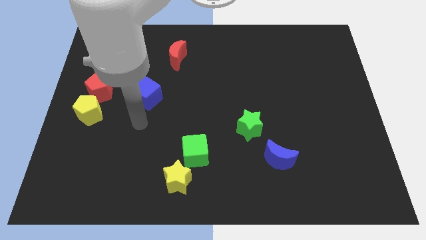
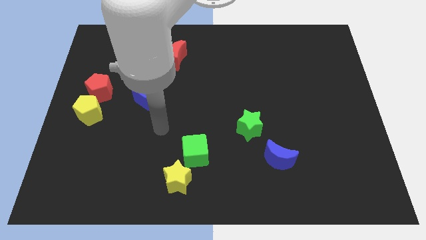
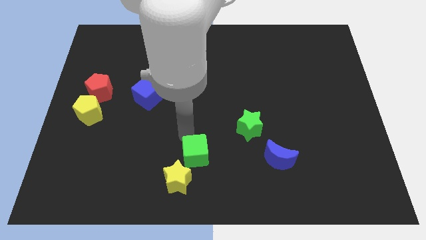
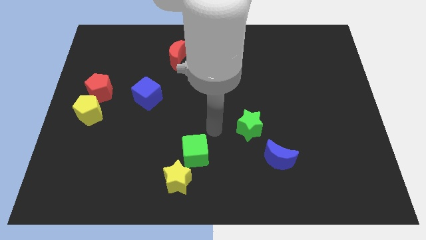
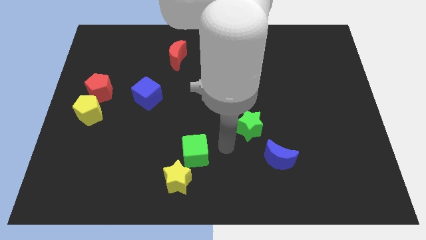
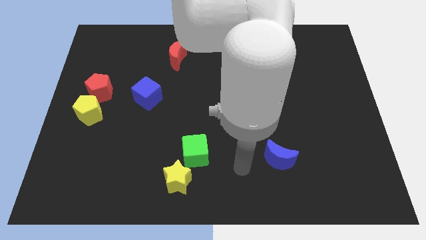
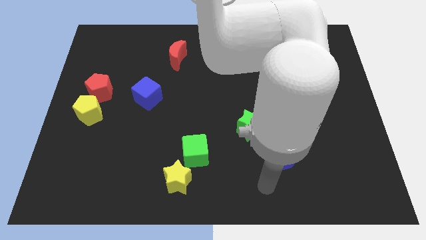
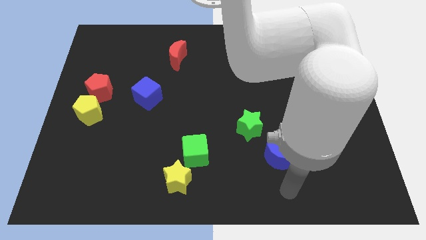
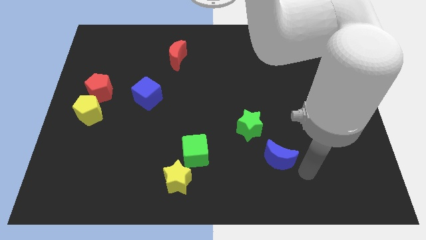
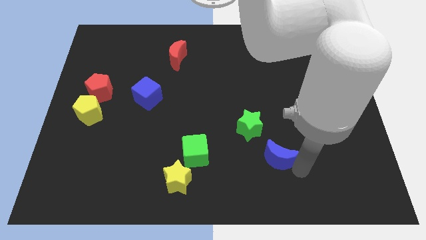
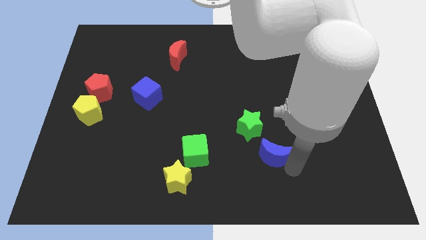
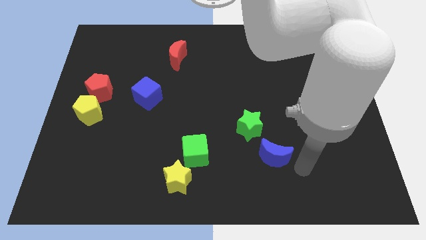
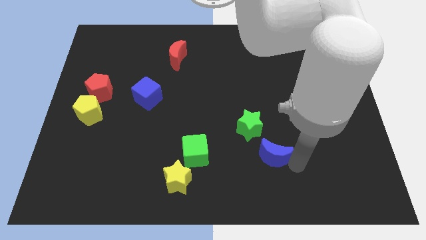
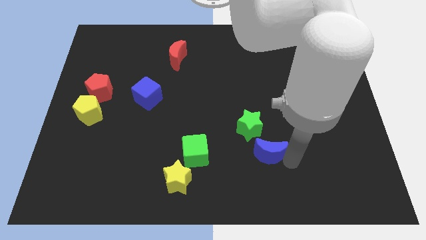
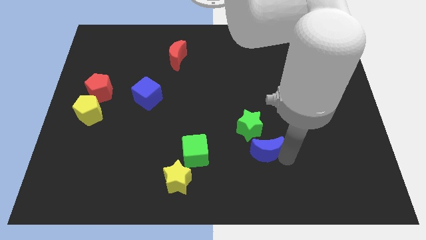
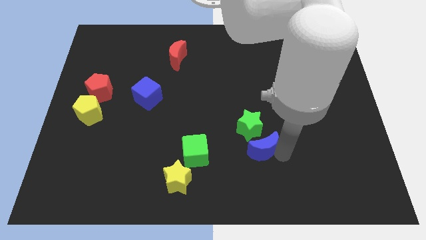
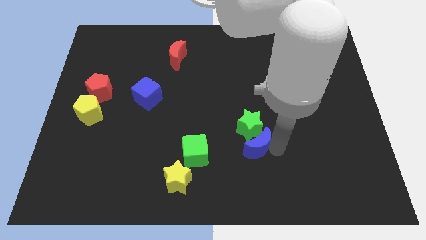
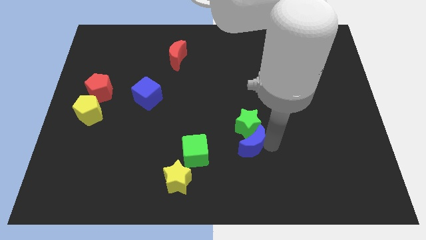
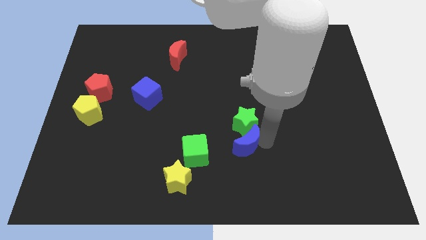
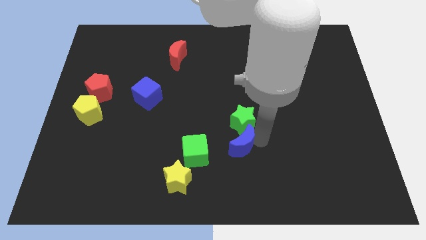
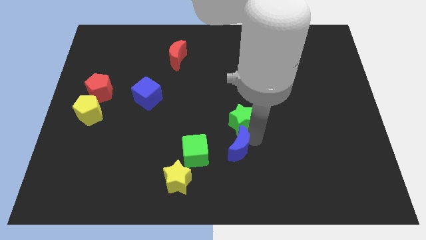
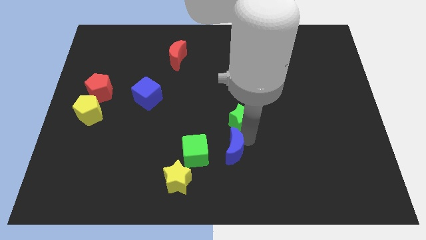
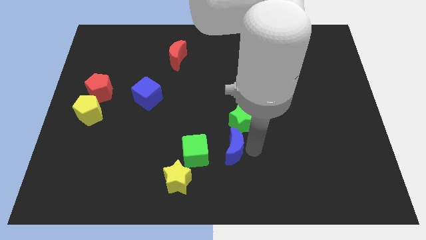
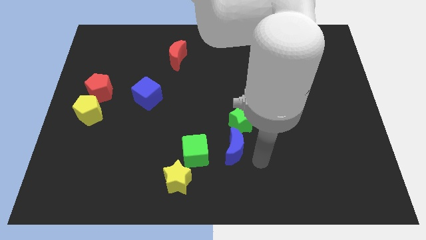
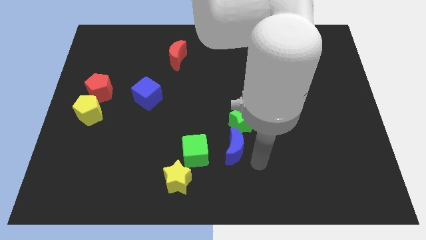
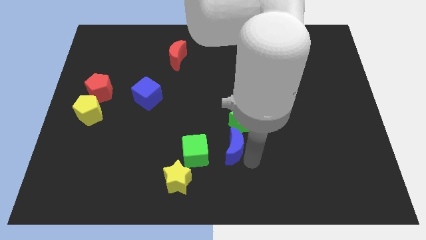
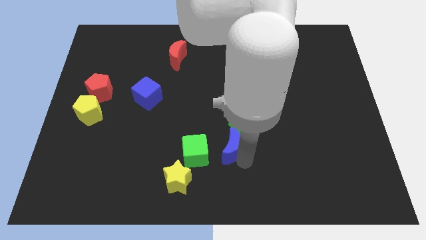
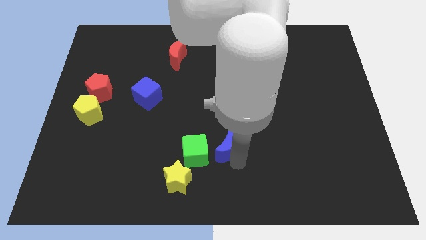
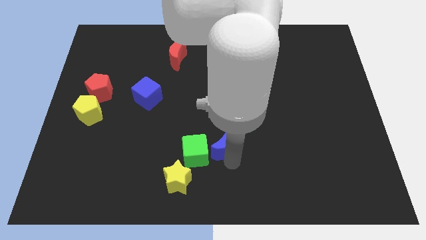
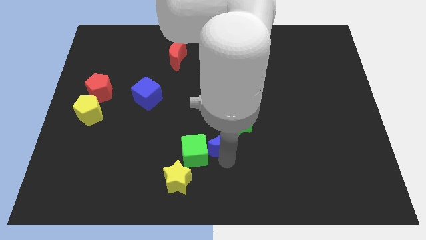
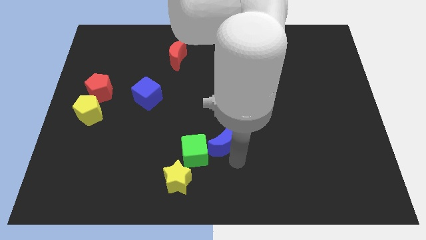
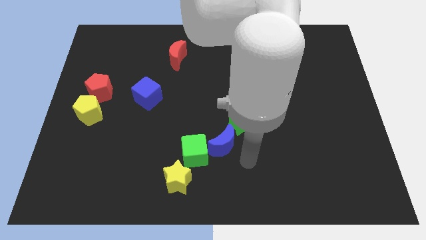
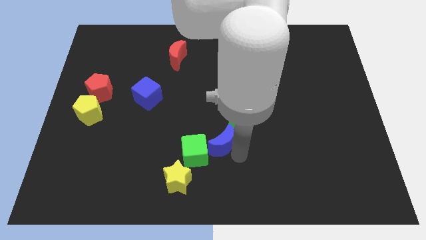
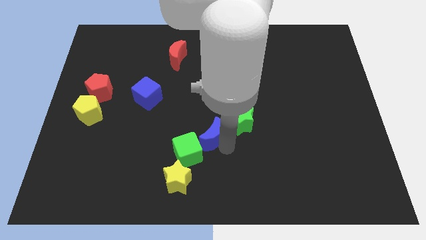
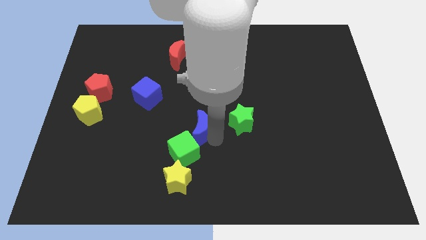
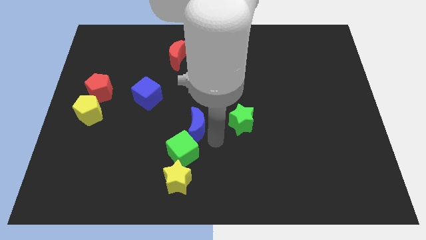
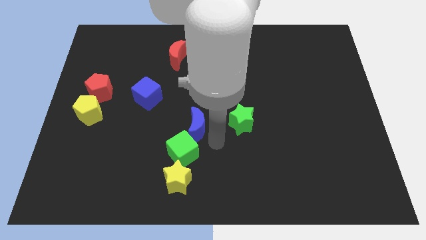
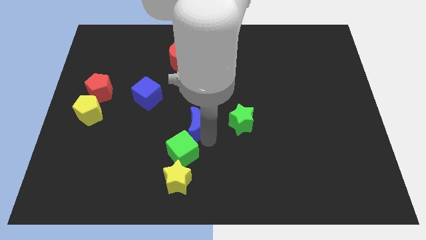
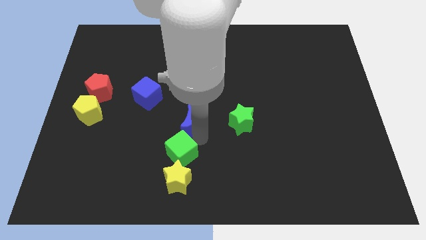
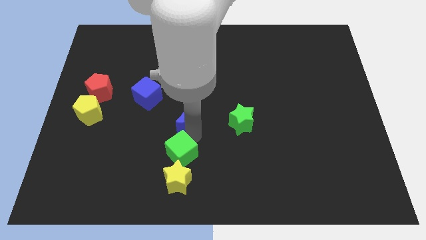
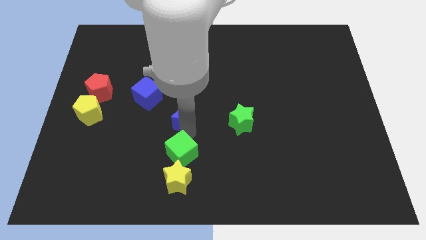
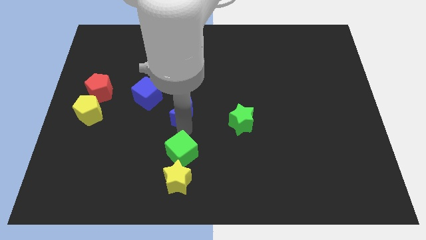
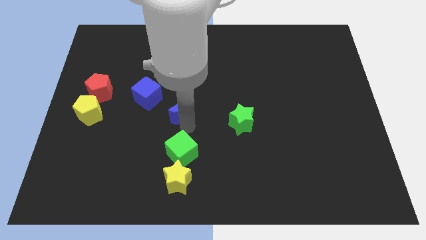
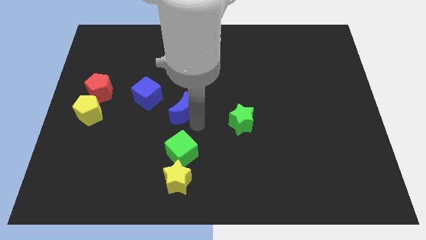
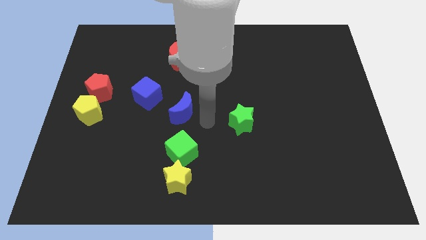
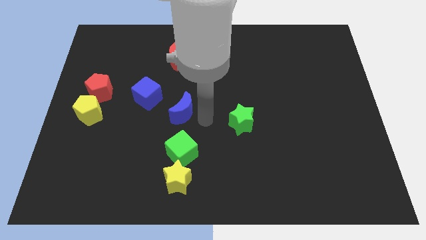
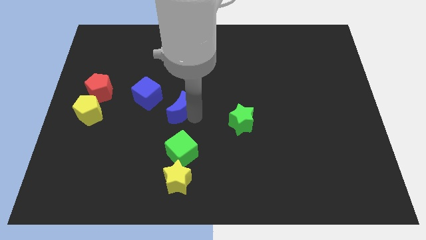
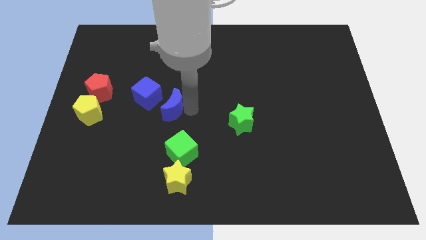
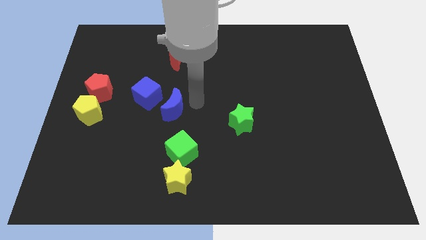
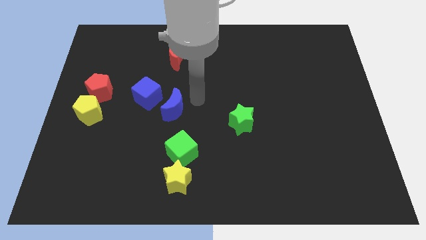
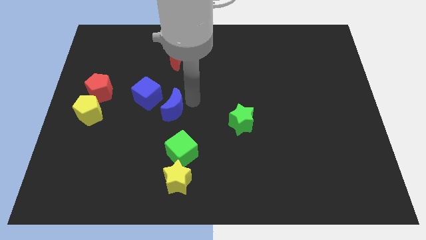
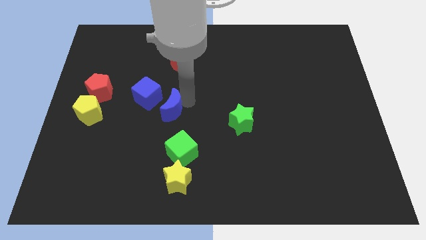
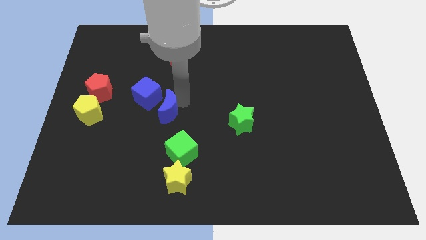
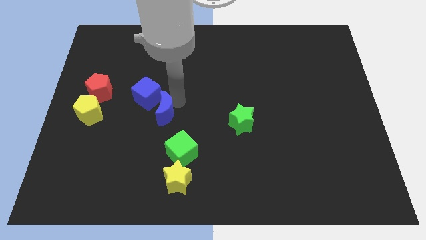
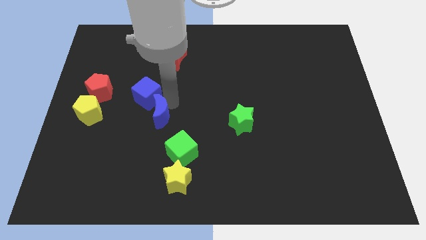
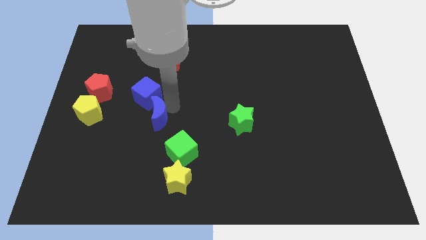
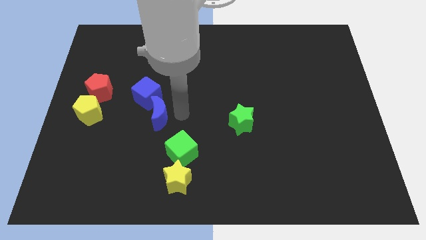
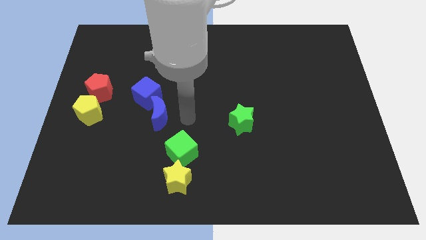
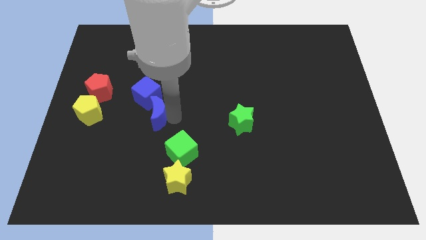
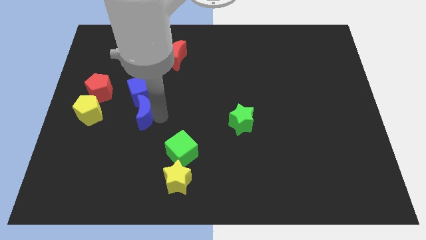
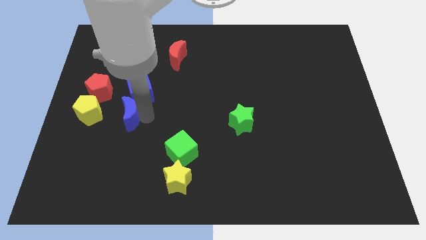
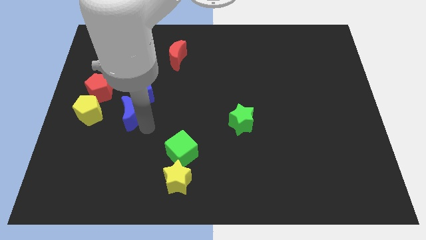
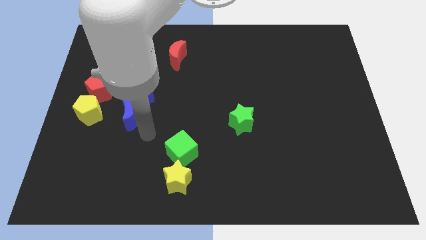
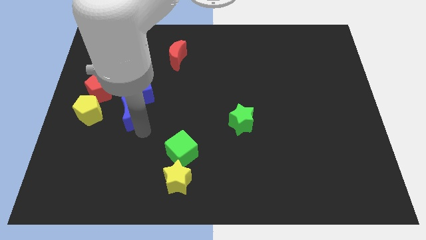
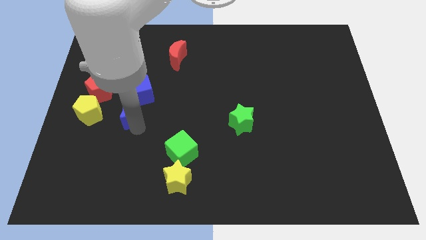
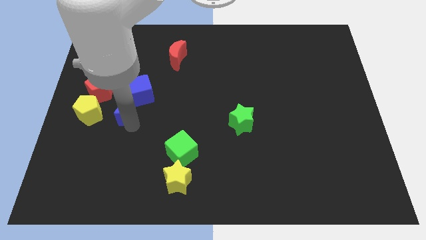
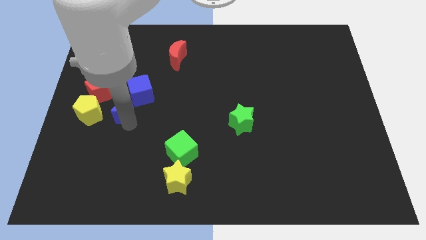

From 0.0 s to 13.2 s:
put the blue moon diagonally up and to the right of the yellow pentagon

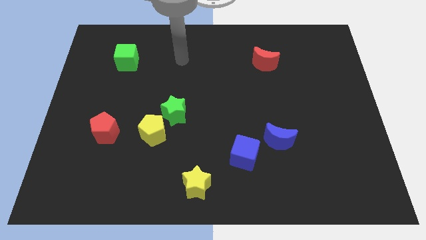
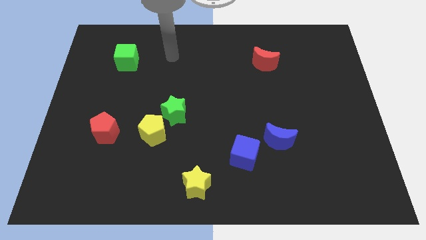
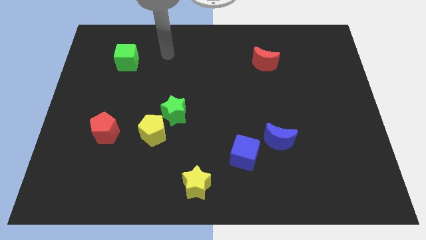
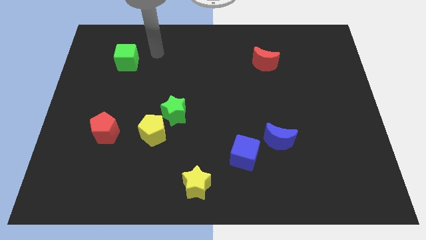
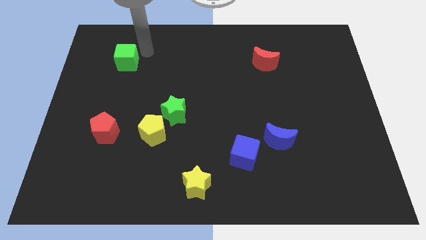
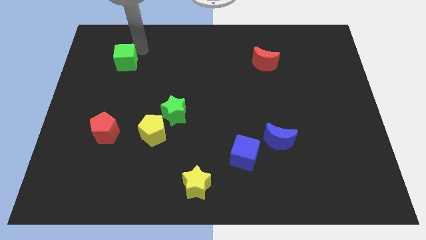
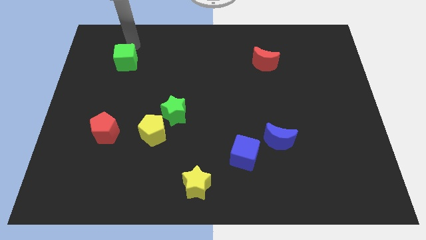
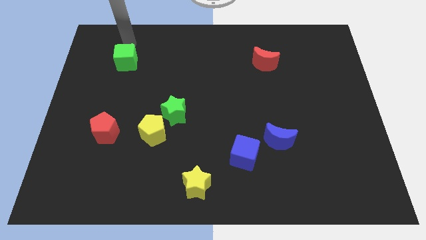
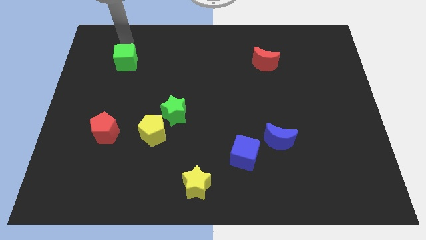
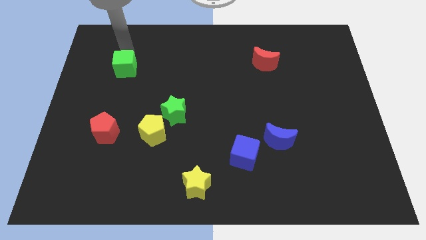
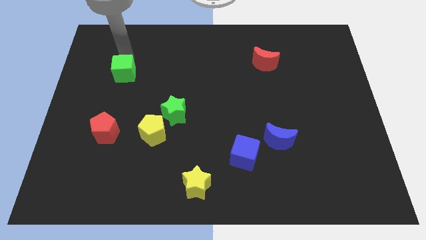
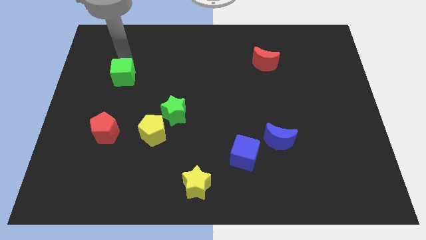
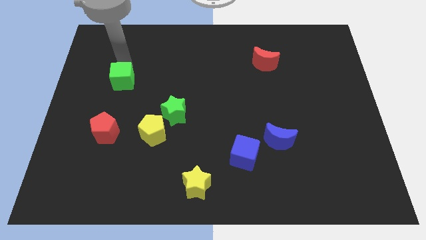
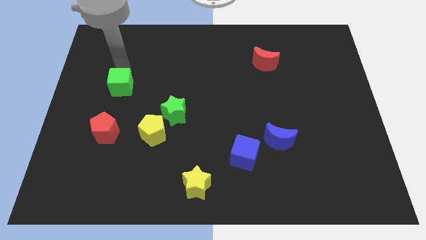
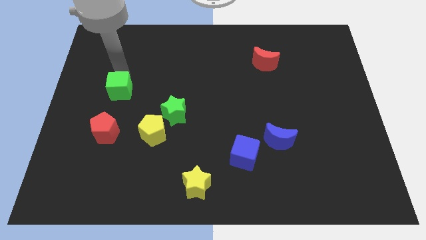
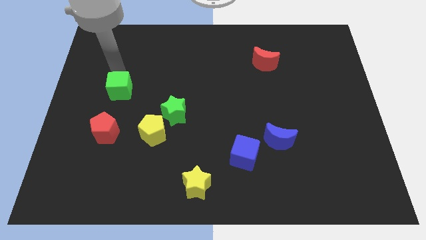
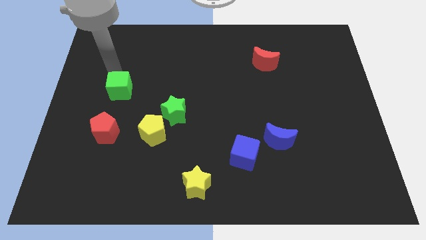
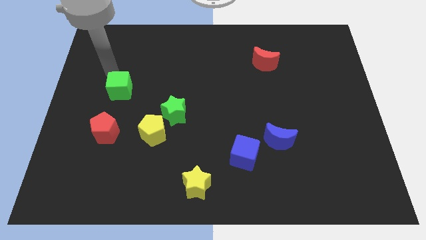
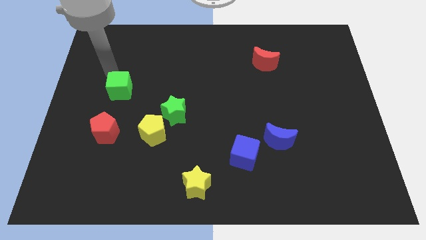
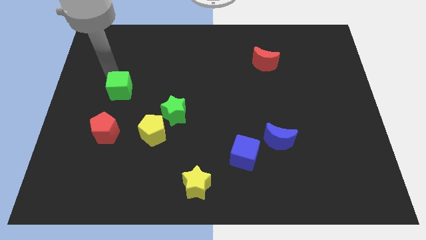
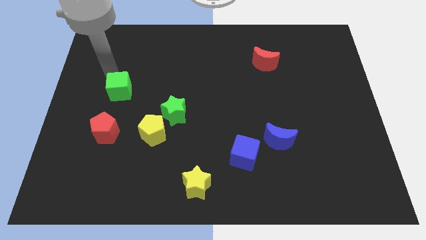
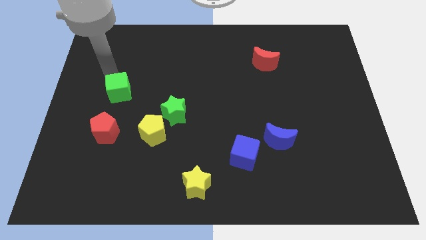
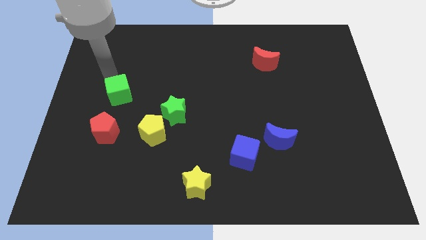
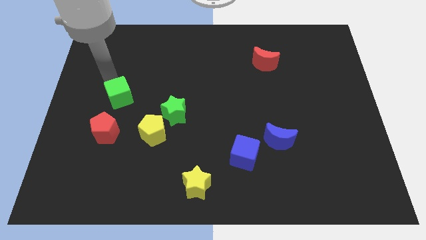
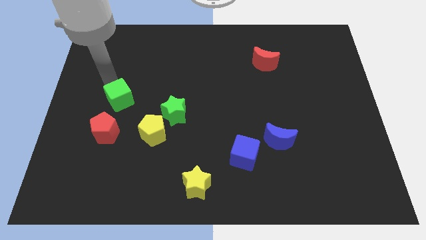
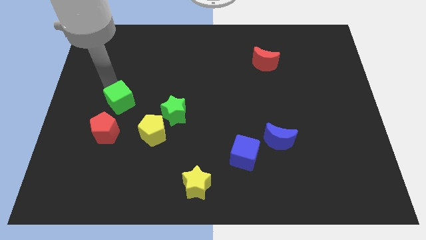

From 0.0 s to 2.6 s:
push the green cube diagonally up and to the left of the yellow pentagon
